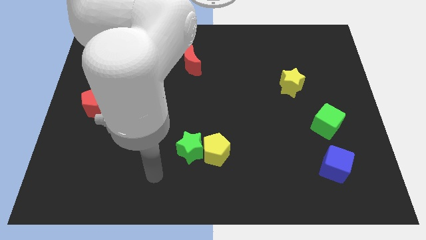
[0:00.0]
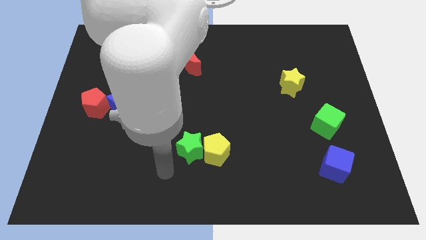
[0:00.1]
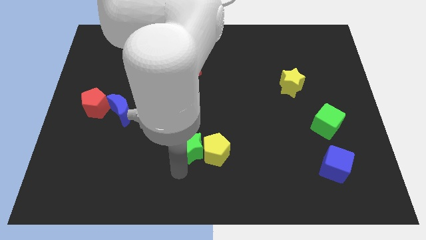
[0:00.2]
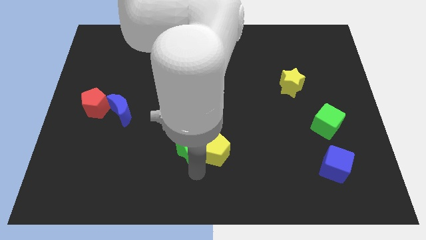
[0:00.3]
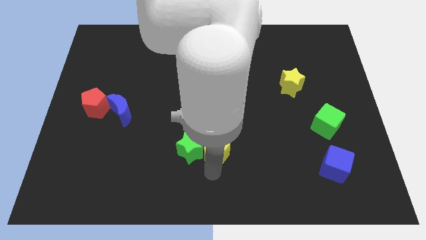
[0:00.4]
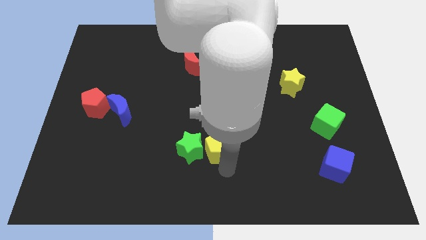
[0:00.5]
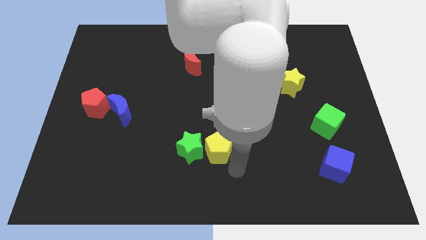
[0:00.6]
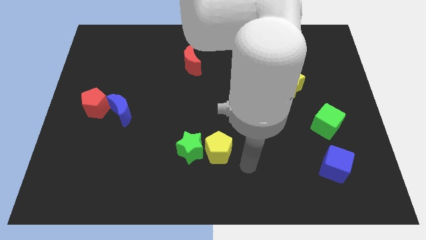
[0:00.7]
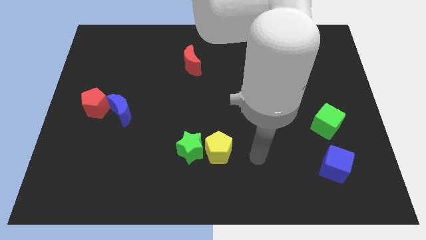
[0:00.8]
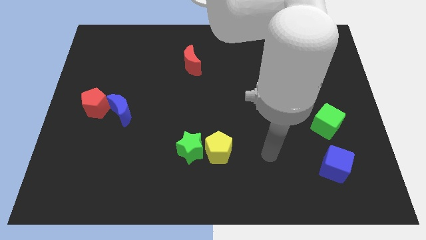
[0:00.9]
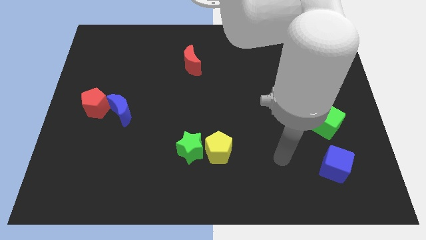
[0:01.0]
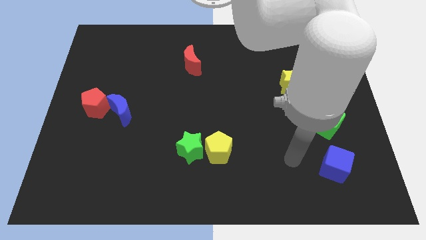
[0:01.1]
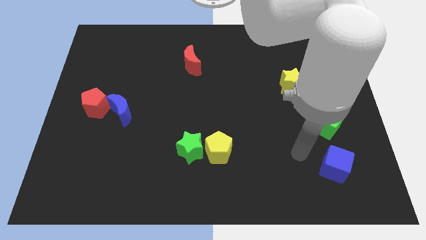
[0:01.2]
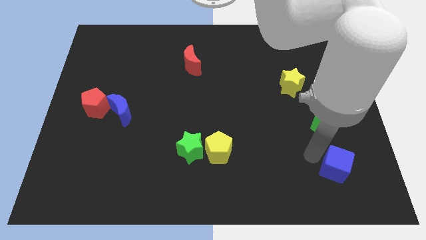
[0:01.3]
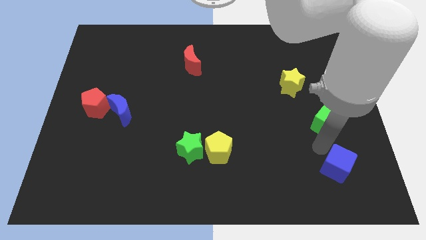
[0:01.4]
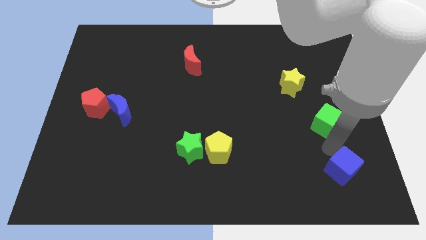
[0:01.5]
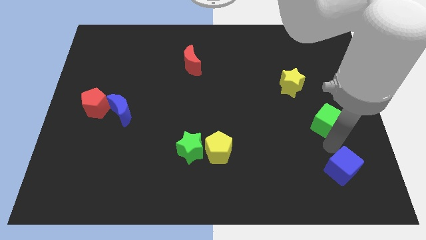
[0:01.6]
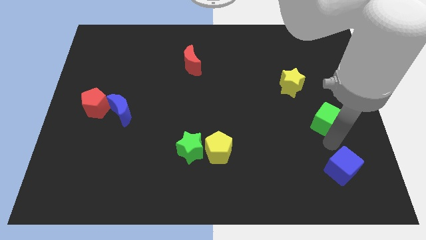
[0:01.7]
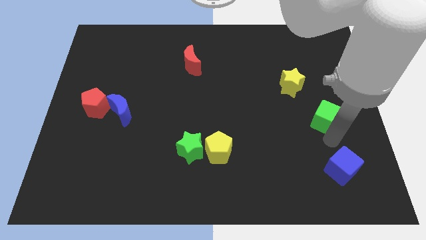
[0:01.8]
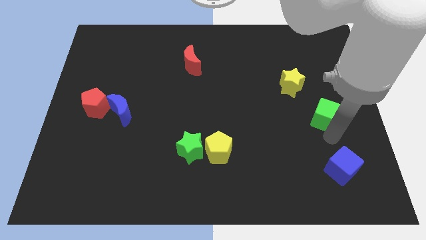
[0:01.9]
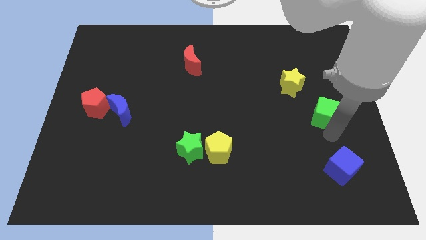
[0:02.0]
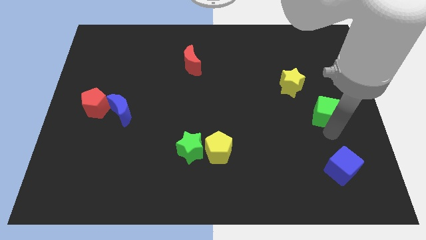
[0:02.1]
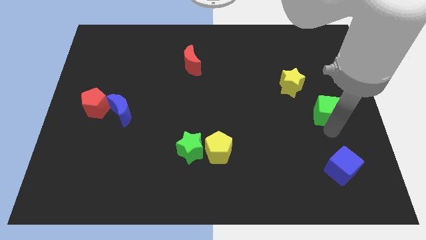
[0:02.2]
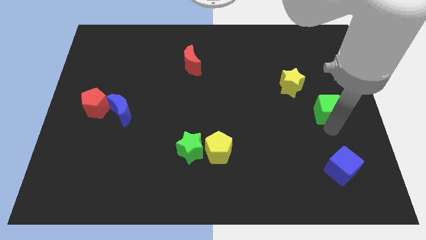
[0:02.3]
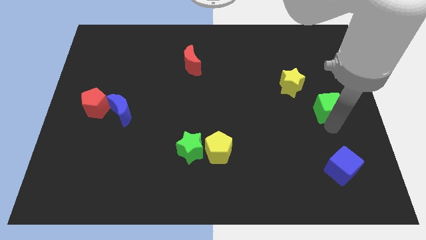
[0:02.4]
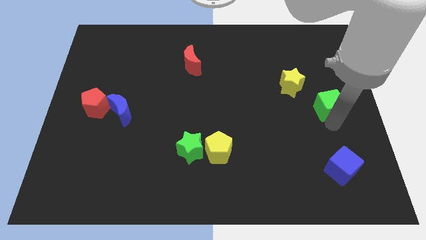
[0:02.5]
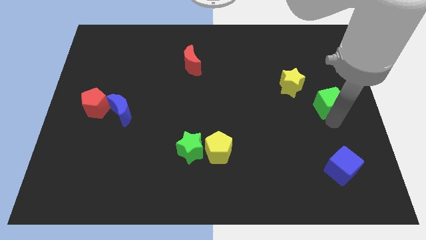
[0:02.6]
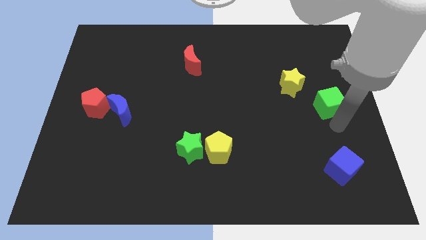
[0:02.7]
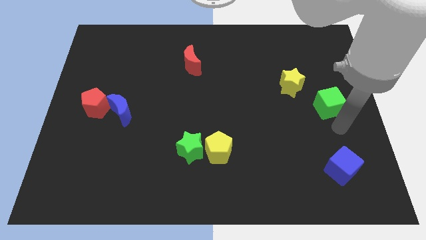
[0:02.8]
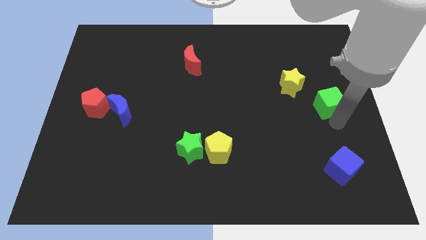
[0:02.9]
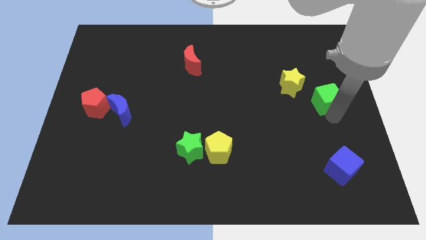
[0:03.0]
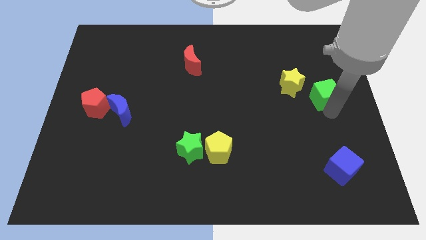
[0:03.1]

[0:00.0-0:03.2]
slightly slide the green cube up

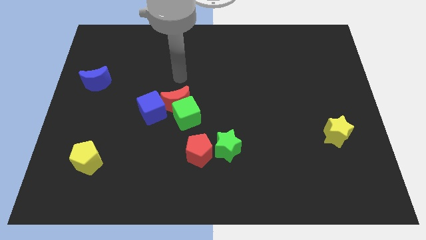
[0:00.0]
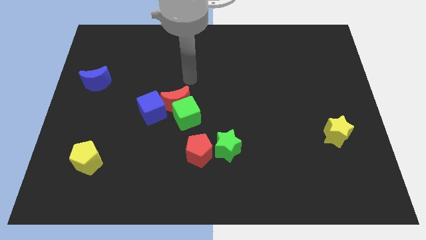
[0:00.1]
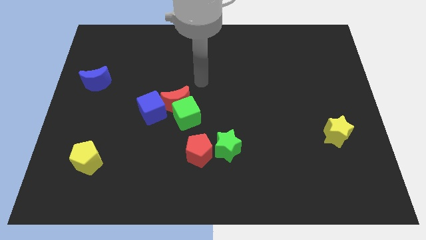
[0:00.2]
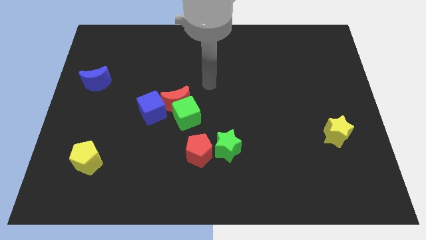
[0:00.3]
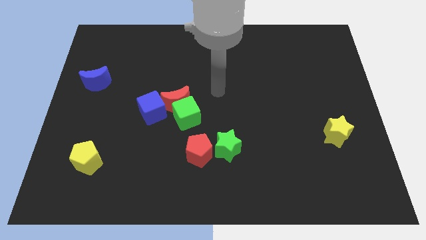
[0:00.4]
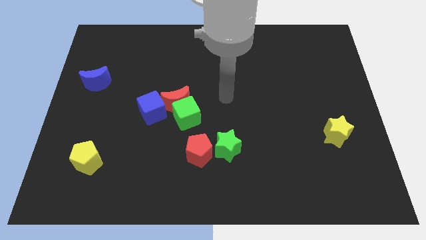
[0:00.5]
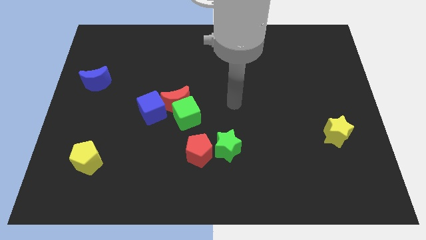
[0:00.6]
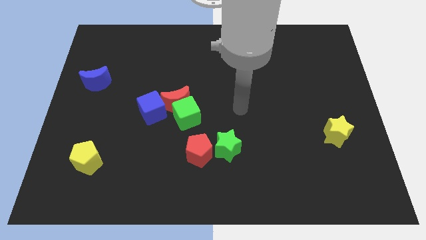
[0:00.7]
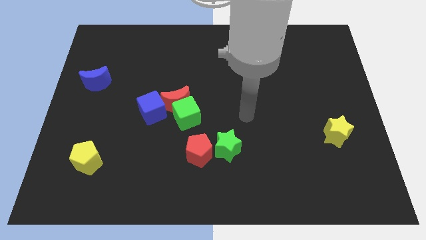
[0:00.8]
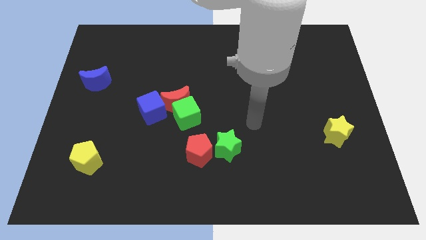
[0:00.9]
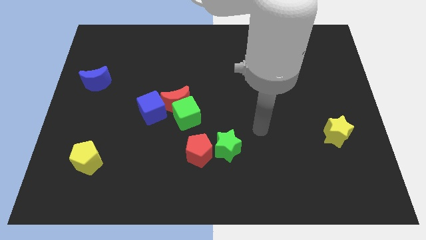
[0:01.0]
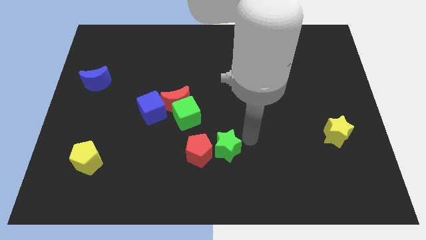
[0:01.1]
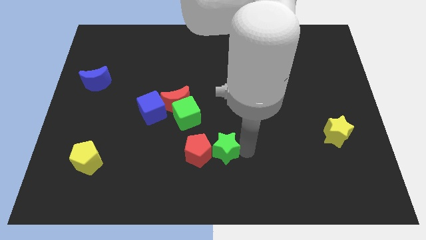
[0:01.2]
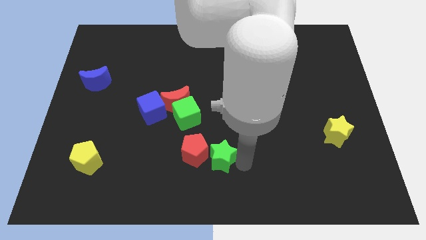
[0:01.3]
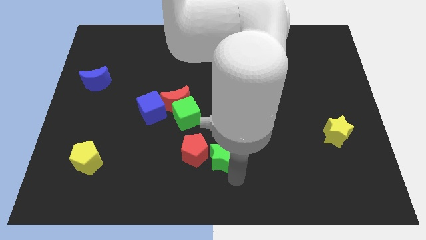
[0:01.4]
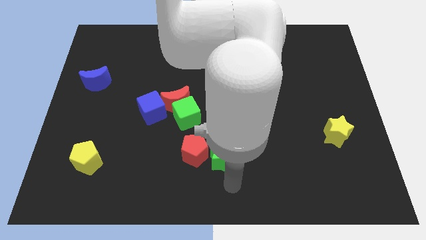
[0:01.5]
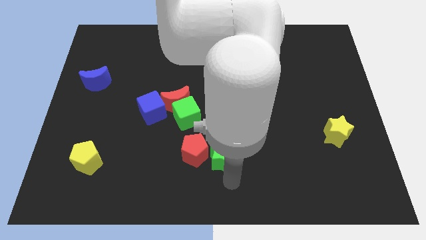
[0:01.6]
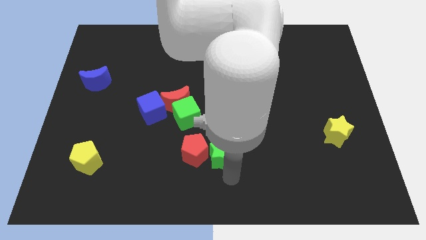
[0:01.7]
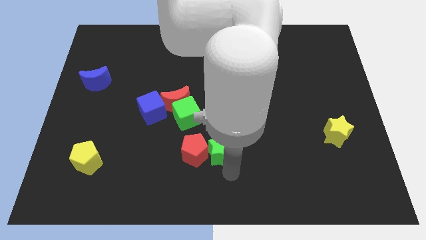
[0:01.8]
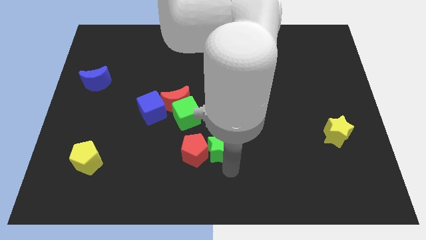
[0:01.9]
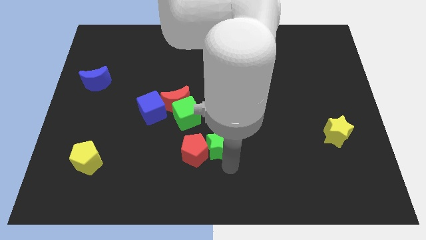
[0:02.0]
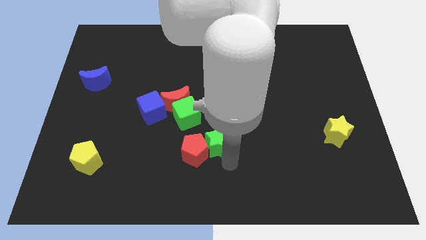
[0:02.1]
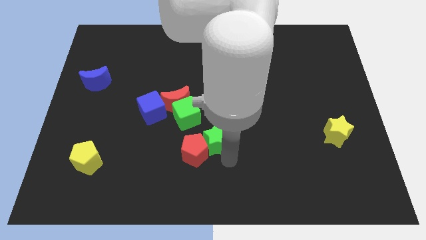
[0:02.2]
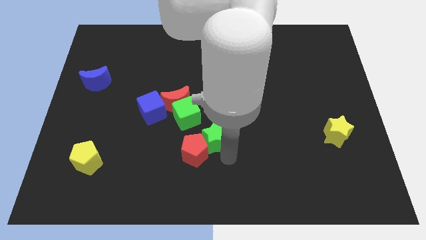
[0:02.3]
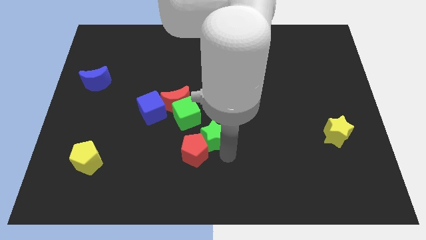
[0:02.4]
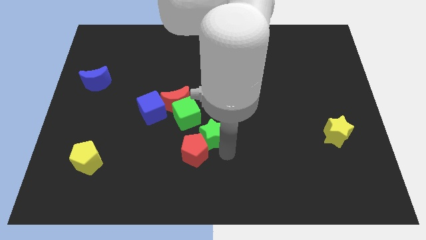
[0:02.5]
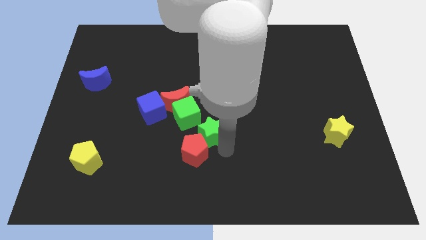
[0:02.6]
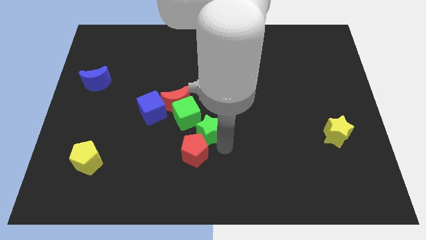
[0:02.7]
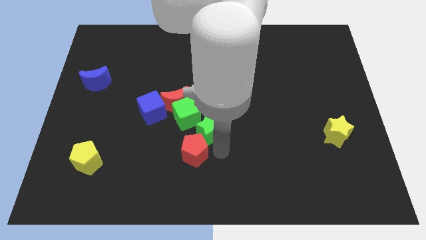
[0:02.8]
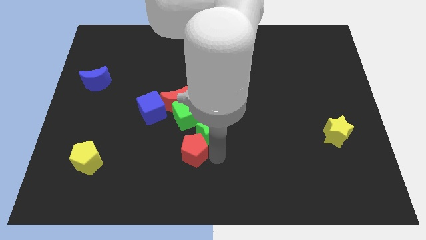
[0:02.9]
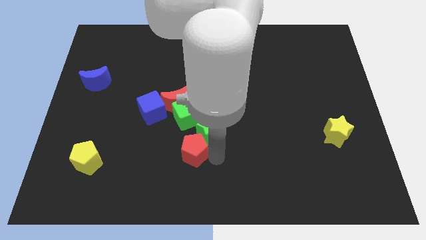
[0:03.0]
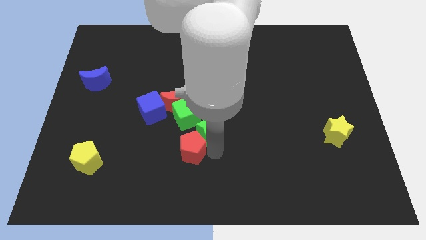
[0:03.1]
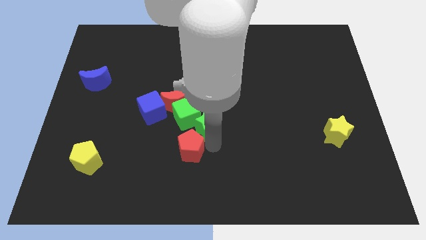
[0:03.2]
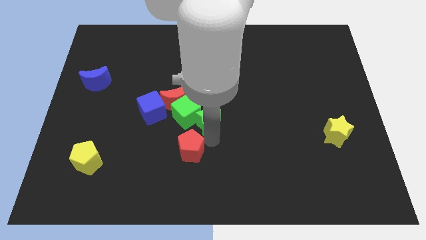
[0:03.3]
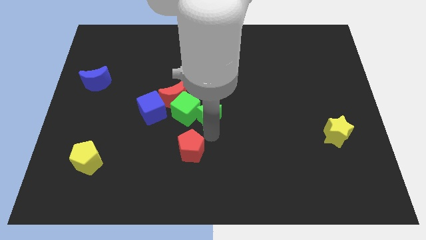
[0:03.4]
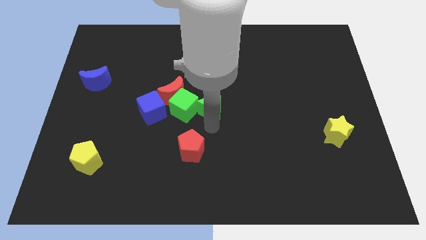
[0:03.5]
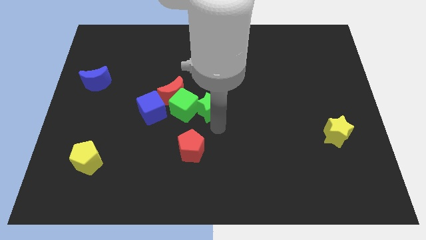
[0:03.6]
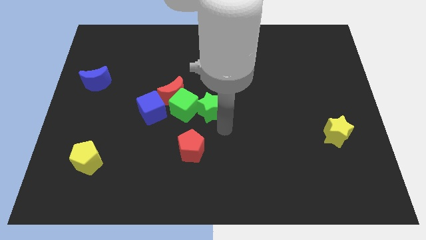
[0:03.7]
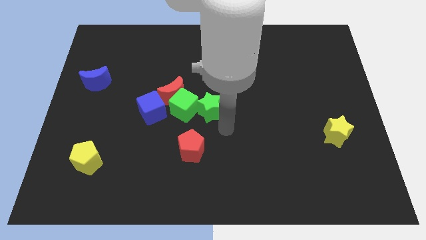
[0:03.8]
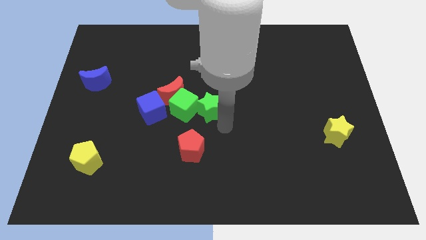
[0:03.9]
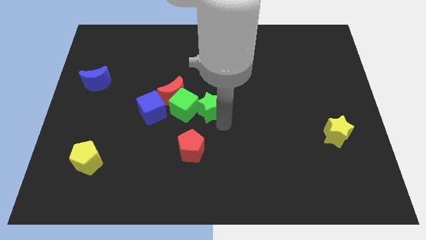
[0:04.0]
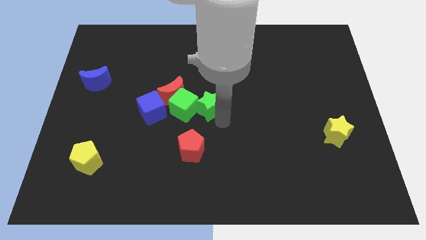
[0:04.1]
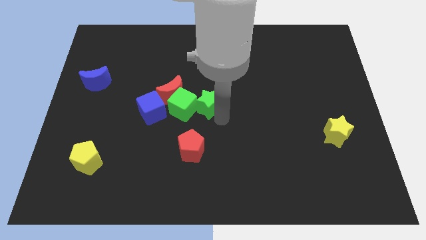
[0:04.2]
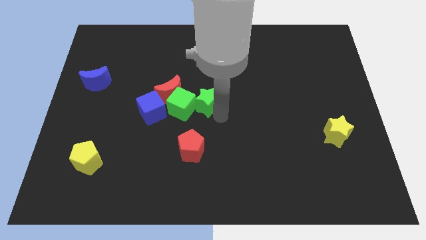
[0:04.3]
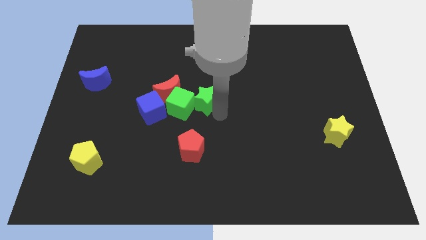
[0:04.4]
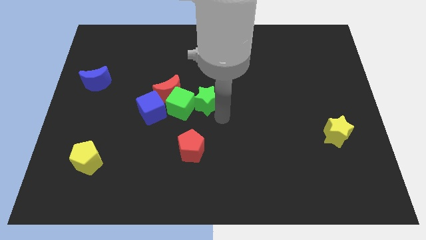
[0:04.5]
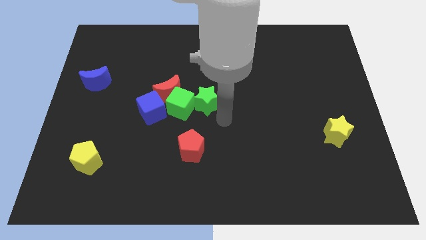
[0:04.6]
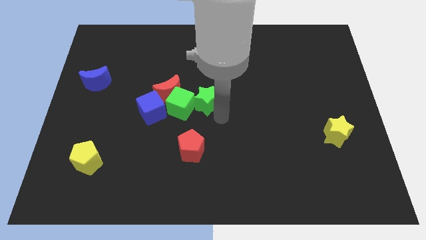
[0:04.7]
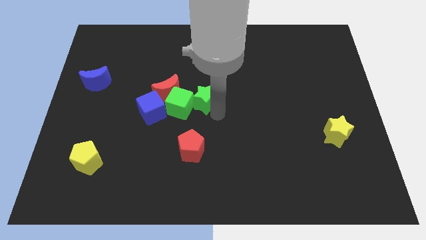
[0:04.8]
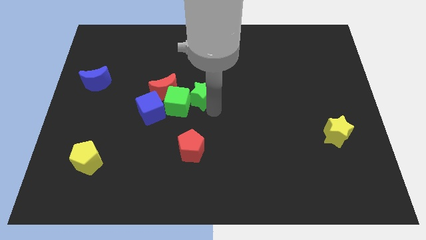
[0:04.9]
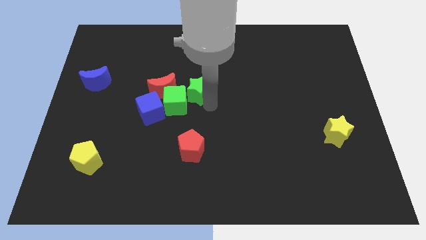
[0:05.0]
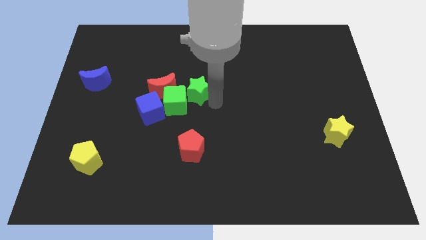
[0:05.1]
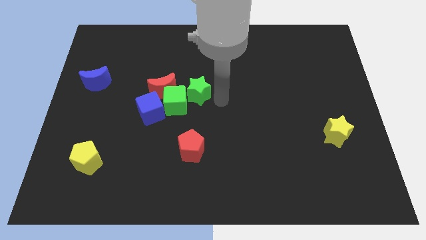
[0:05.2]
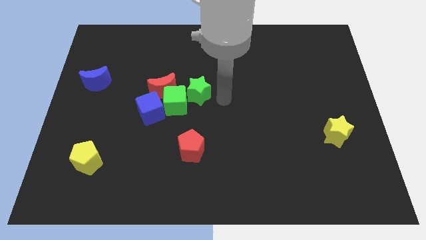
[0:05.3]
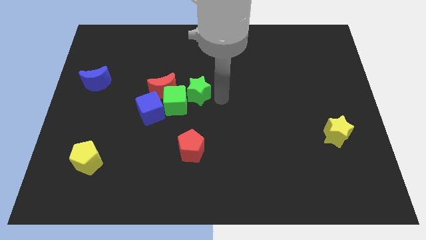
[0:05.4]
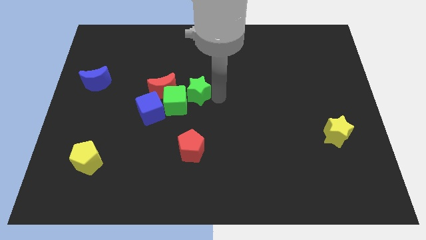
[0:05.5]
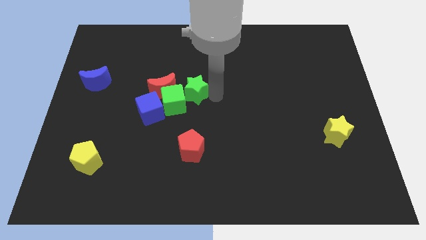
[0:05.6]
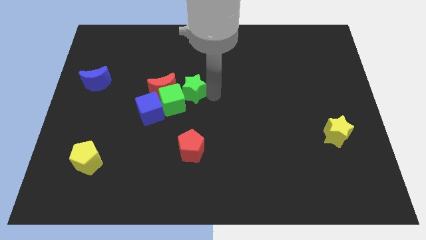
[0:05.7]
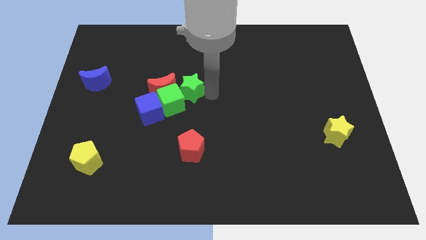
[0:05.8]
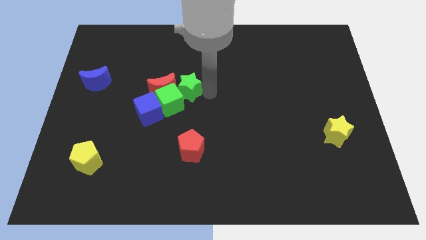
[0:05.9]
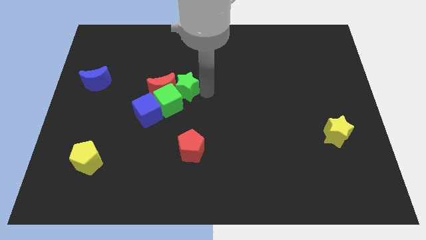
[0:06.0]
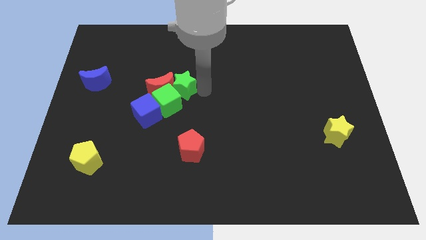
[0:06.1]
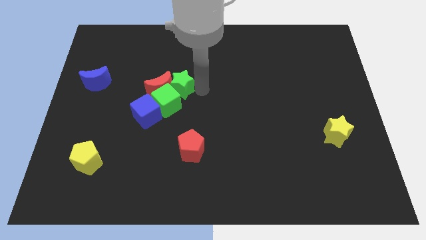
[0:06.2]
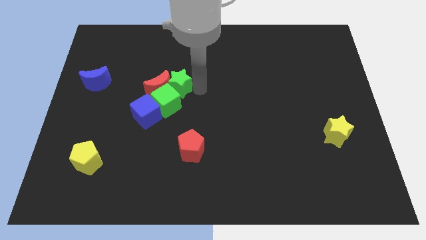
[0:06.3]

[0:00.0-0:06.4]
move the green star upwards and left
